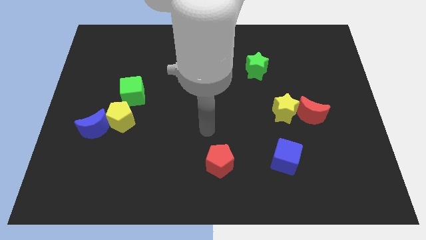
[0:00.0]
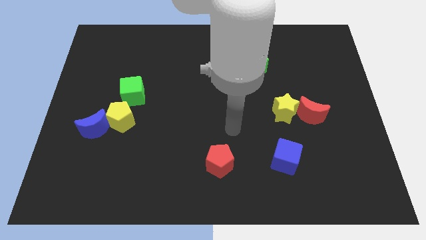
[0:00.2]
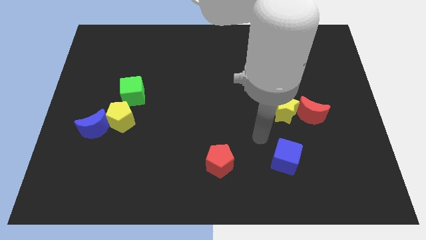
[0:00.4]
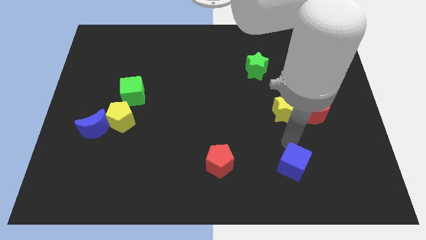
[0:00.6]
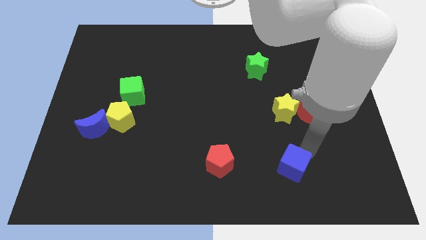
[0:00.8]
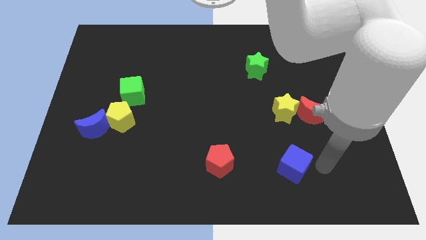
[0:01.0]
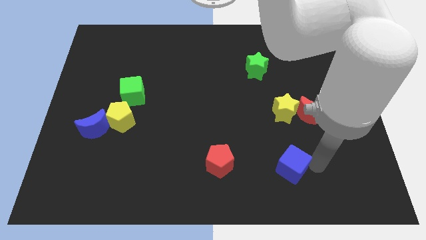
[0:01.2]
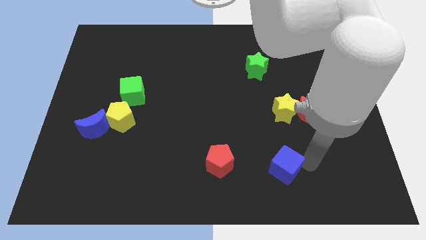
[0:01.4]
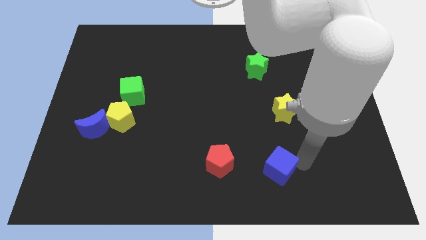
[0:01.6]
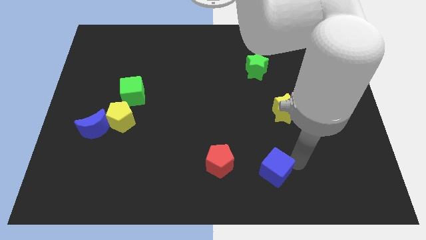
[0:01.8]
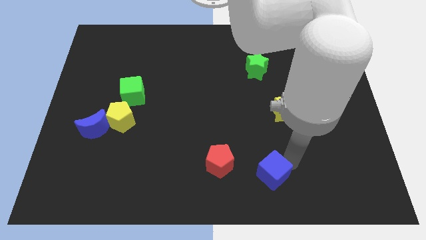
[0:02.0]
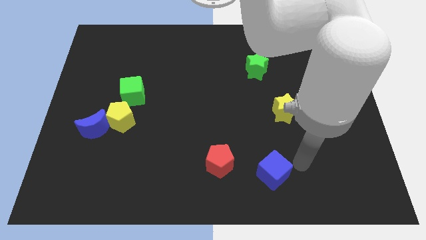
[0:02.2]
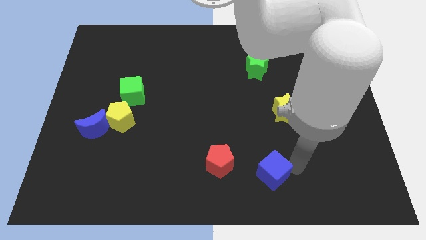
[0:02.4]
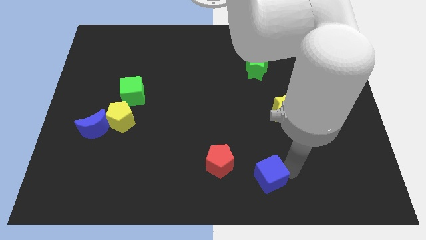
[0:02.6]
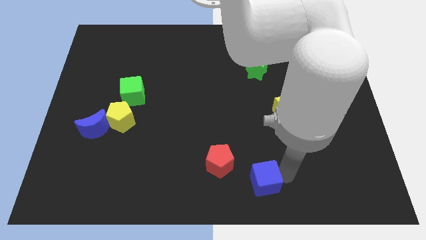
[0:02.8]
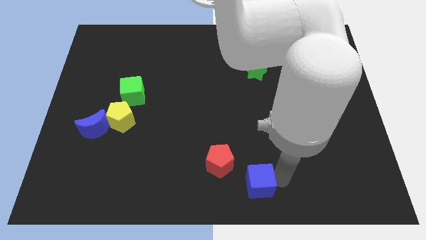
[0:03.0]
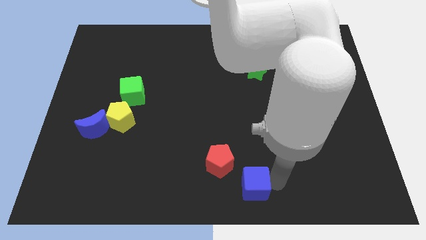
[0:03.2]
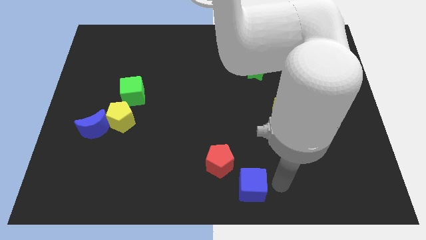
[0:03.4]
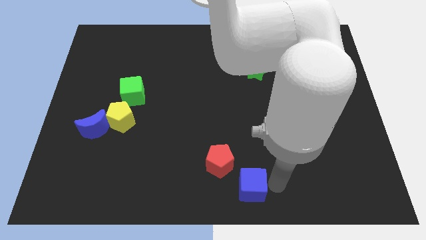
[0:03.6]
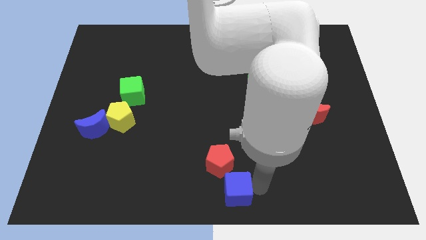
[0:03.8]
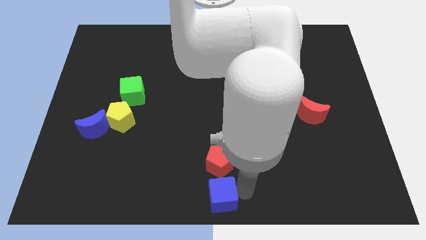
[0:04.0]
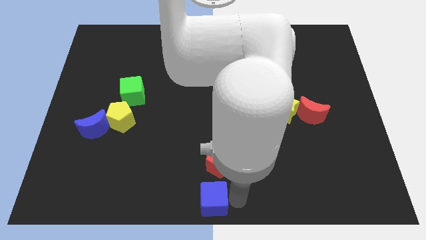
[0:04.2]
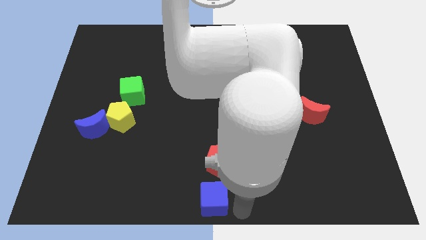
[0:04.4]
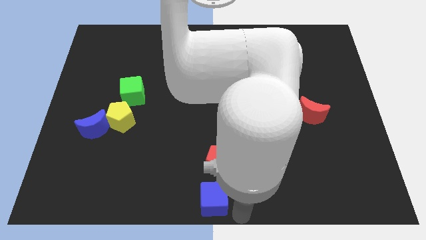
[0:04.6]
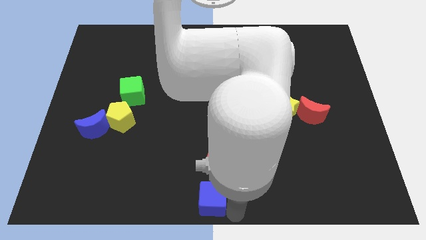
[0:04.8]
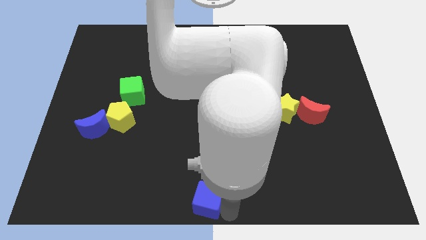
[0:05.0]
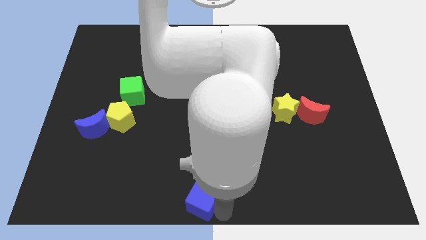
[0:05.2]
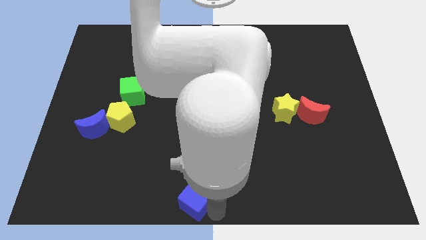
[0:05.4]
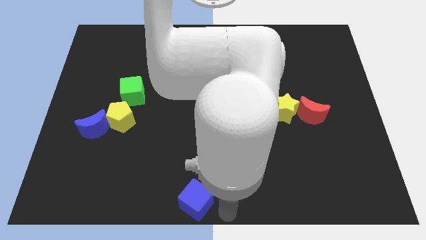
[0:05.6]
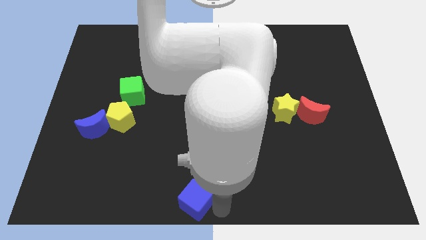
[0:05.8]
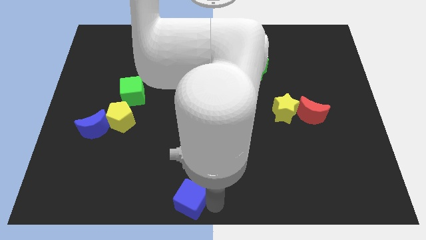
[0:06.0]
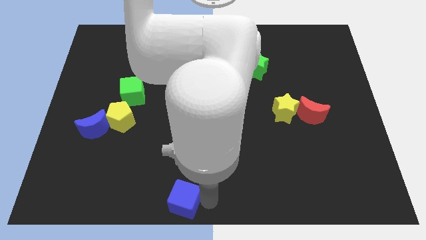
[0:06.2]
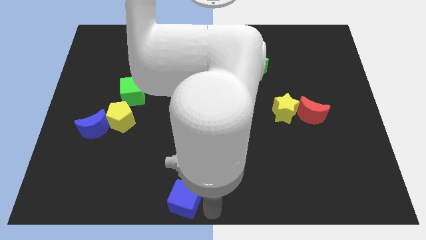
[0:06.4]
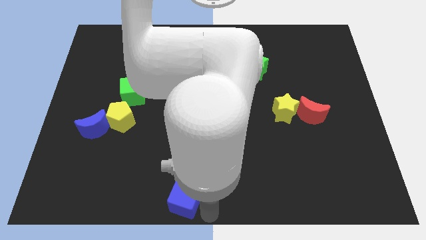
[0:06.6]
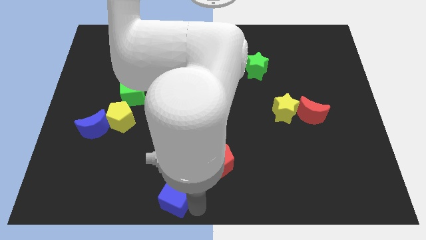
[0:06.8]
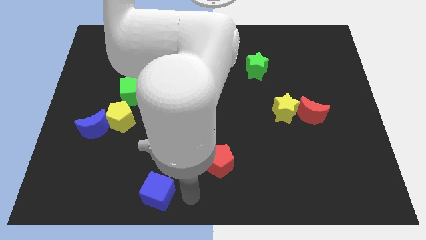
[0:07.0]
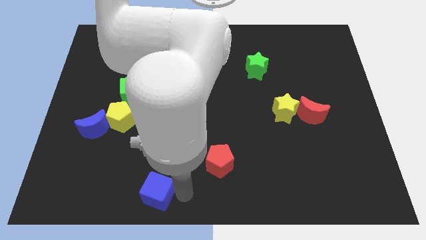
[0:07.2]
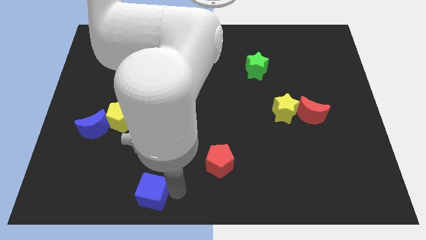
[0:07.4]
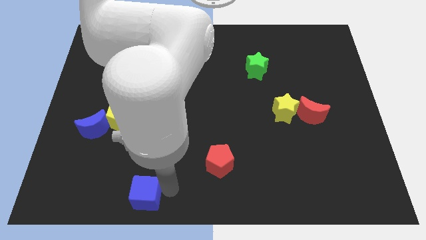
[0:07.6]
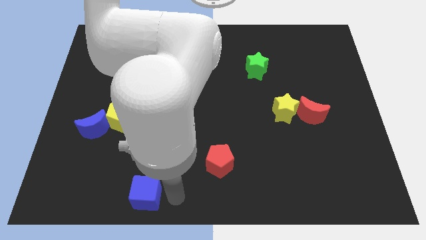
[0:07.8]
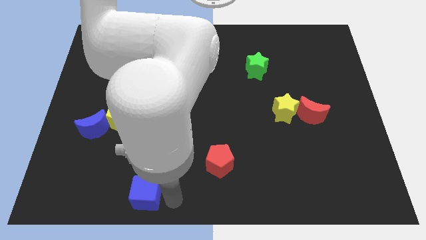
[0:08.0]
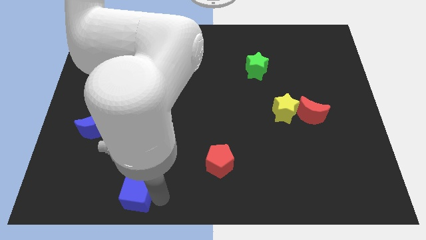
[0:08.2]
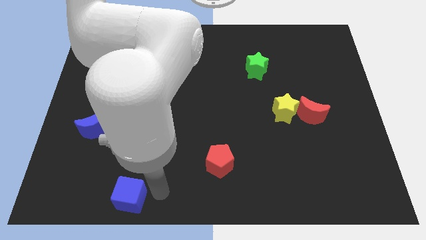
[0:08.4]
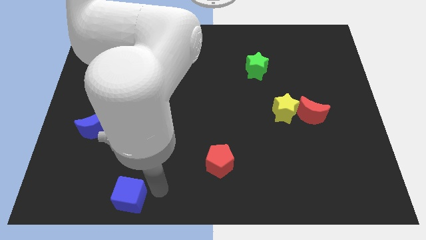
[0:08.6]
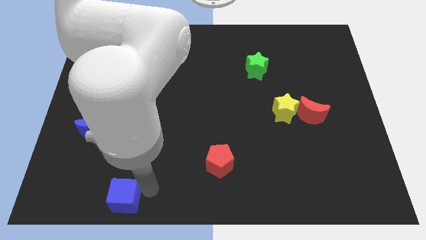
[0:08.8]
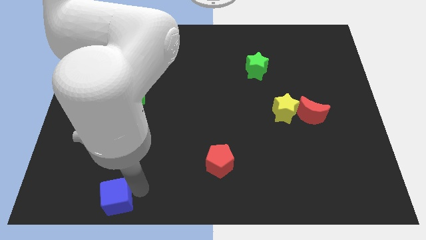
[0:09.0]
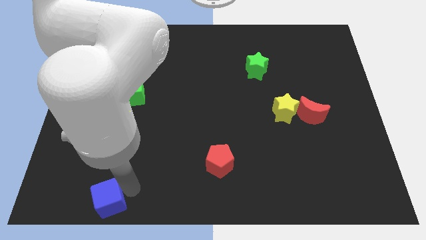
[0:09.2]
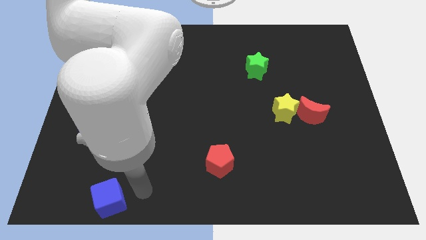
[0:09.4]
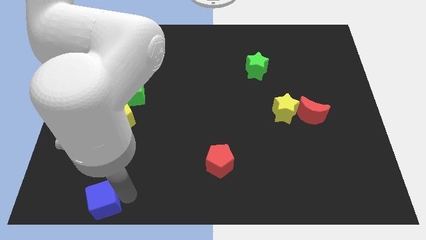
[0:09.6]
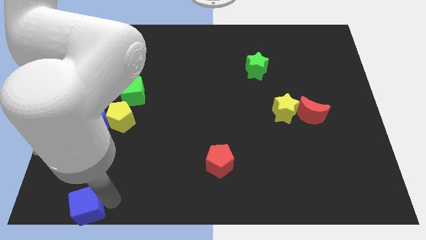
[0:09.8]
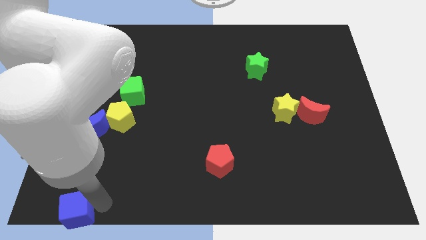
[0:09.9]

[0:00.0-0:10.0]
slide the blue cube to the lower left corner
